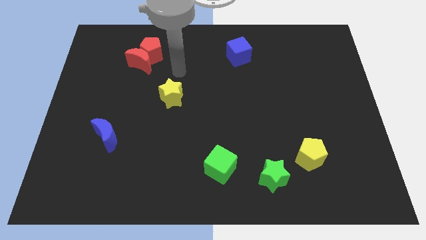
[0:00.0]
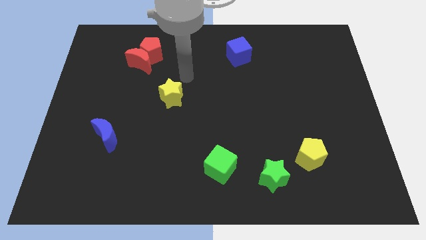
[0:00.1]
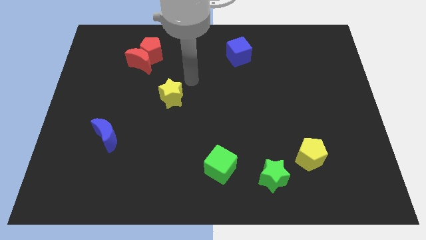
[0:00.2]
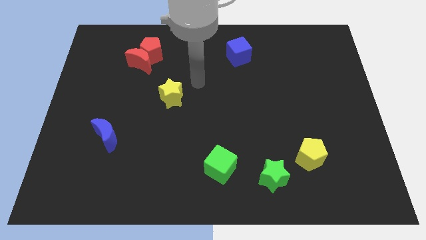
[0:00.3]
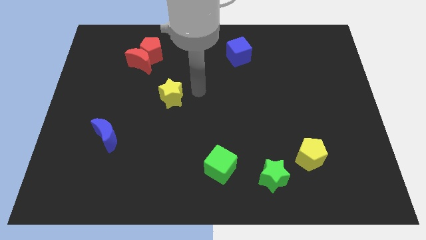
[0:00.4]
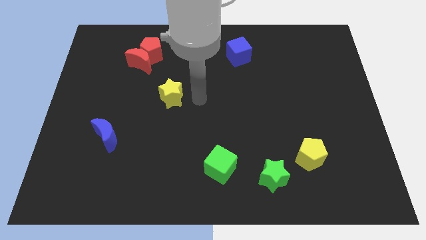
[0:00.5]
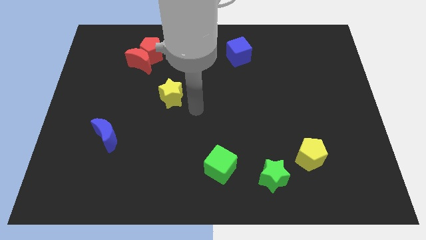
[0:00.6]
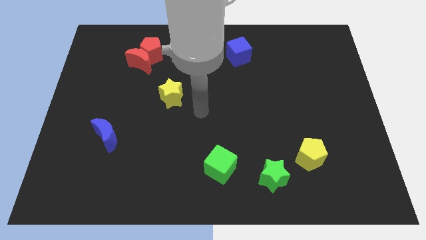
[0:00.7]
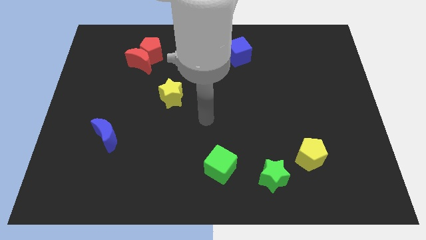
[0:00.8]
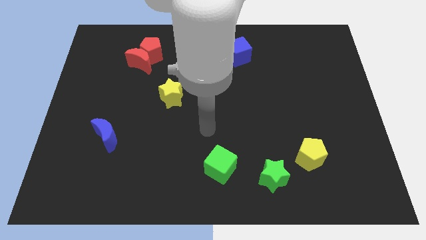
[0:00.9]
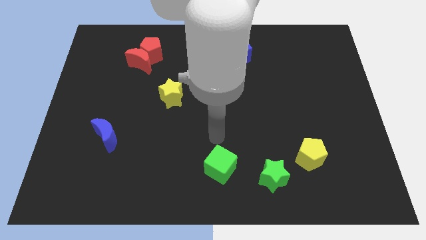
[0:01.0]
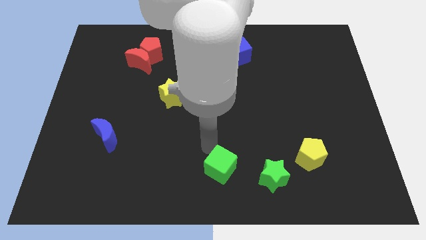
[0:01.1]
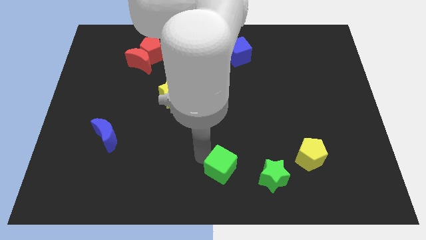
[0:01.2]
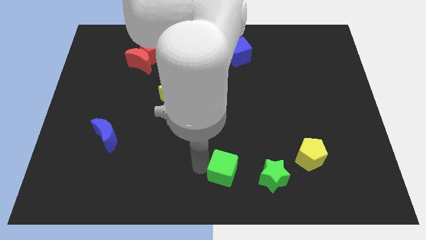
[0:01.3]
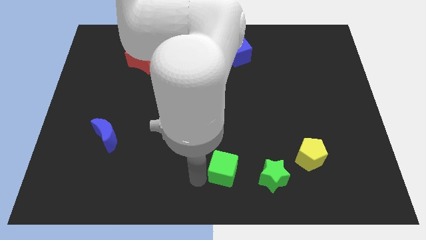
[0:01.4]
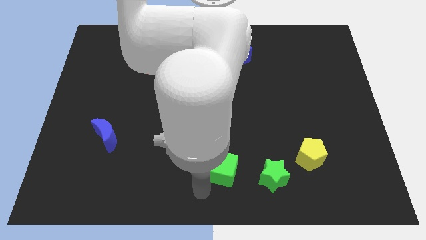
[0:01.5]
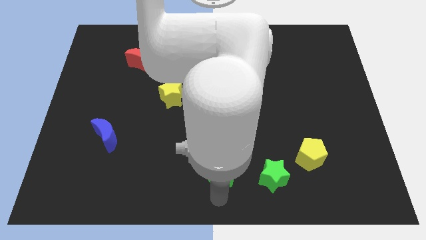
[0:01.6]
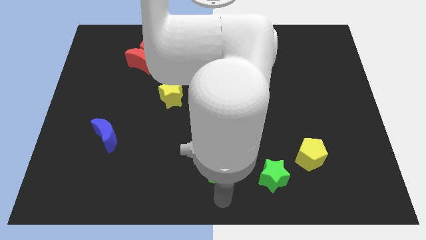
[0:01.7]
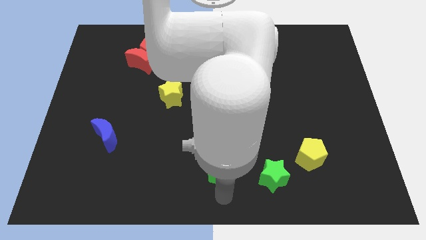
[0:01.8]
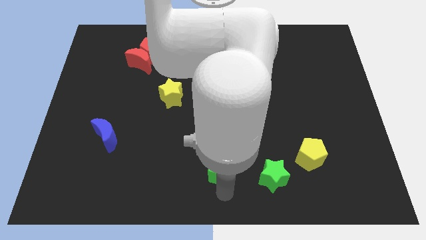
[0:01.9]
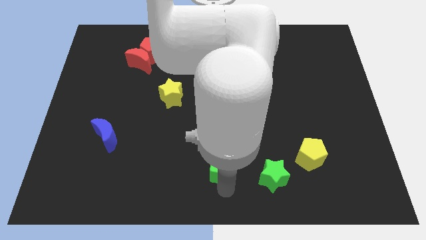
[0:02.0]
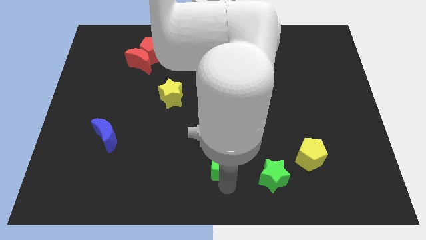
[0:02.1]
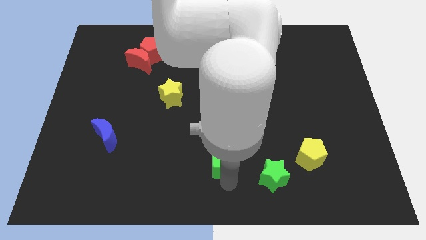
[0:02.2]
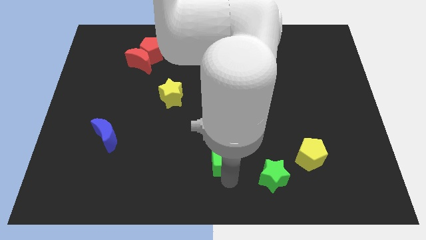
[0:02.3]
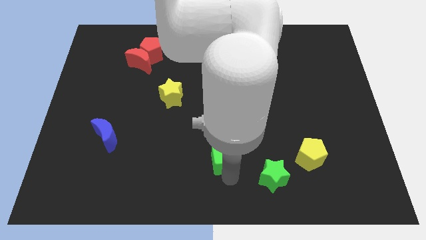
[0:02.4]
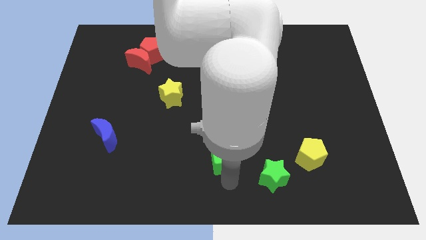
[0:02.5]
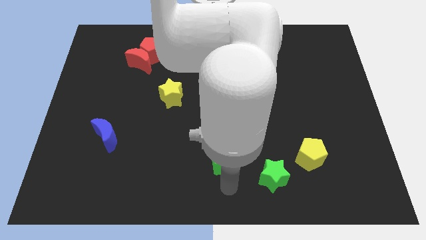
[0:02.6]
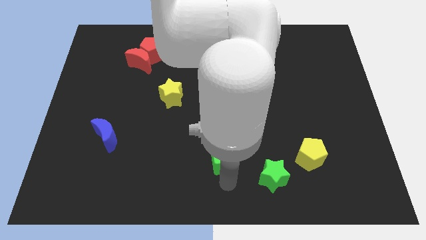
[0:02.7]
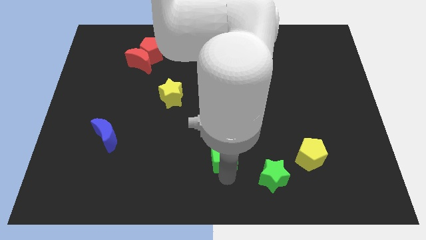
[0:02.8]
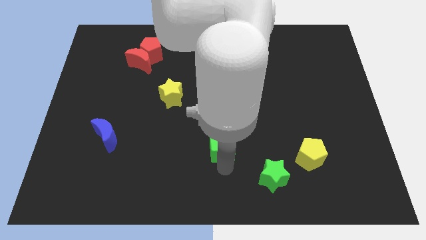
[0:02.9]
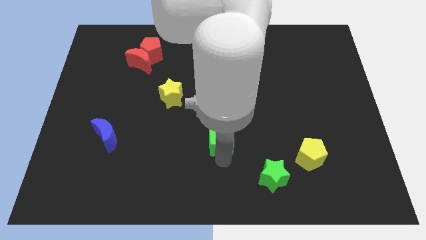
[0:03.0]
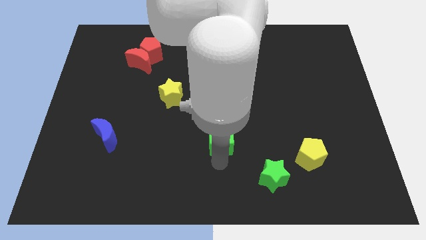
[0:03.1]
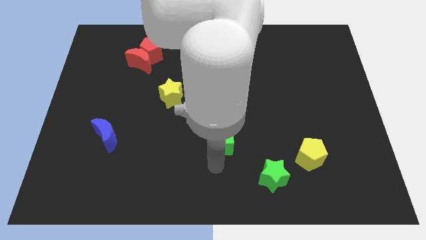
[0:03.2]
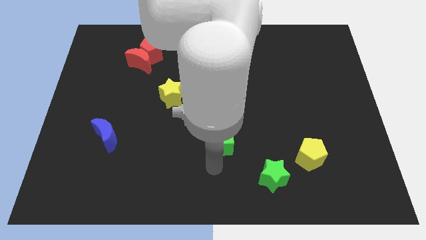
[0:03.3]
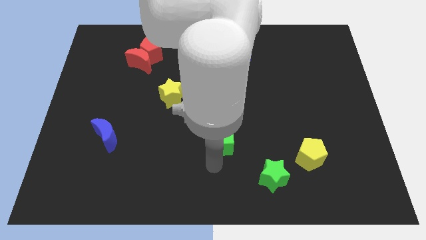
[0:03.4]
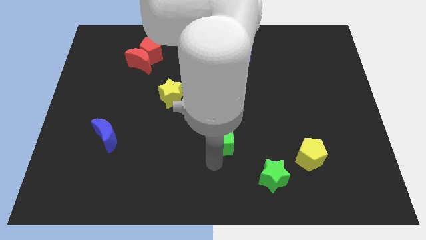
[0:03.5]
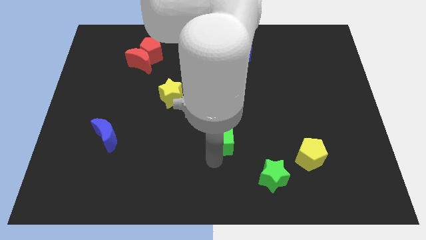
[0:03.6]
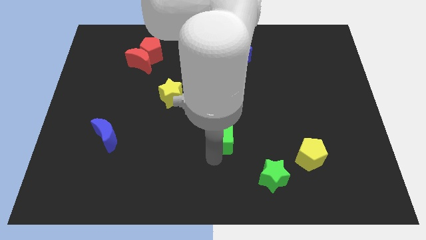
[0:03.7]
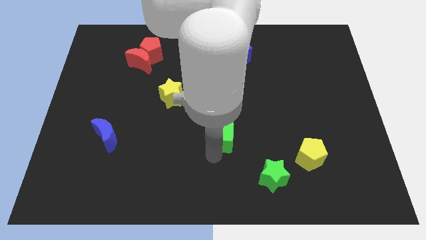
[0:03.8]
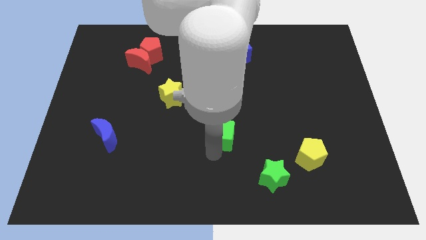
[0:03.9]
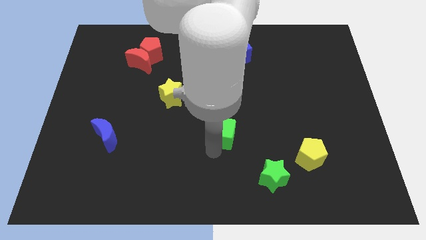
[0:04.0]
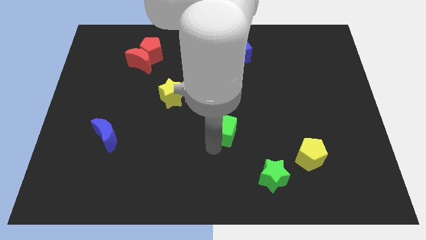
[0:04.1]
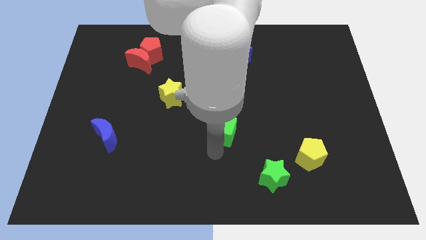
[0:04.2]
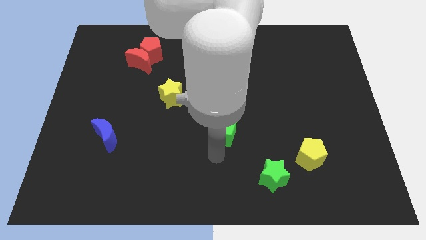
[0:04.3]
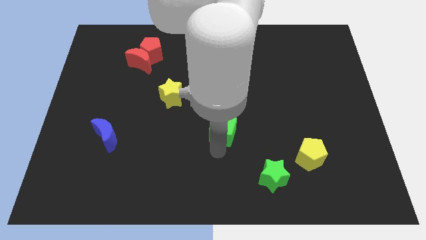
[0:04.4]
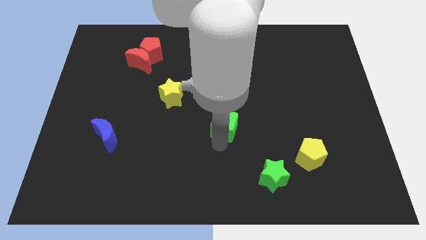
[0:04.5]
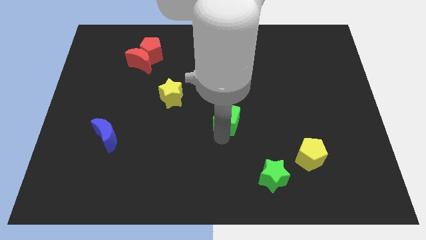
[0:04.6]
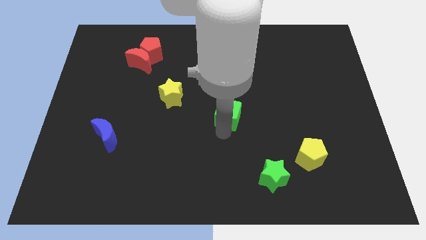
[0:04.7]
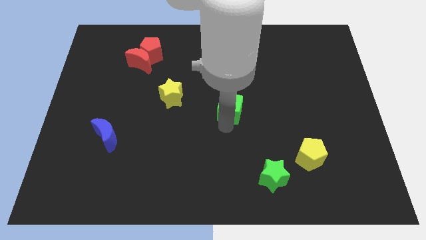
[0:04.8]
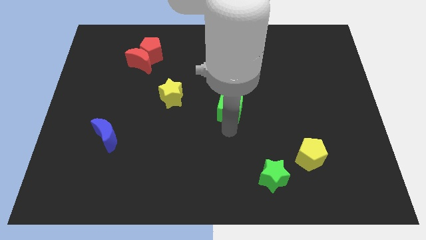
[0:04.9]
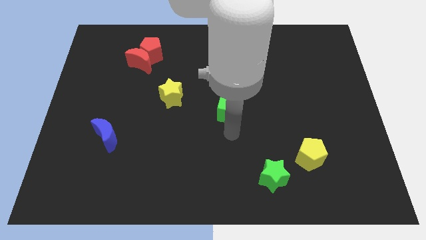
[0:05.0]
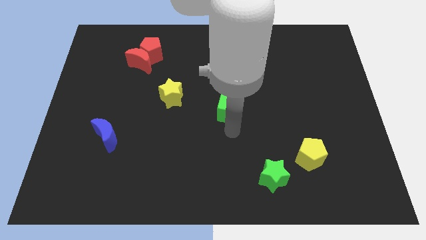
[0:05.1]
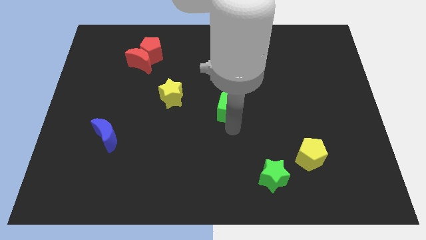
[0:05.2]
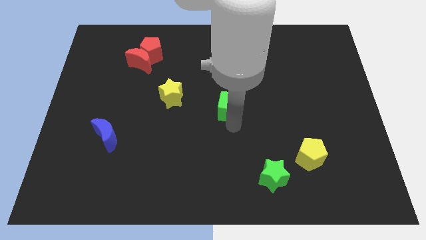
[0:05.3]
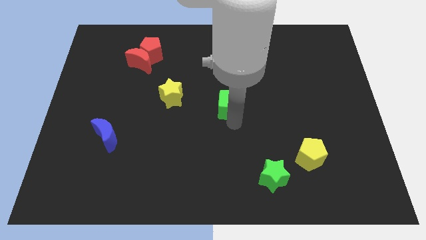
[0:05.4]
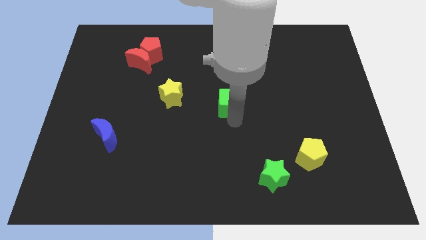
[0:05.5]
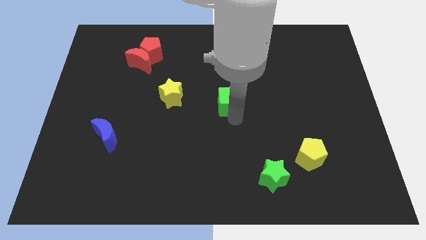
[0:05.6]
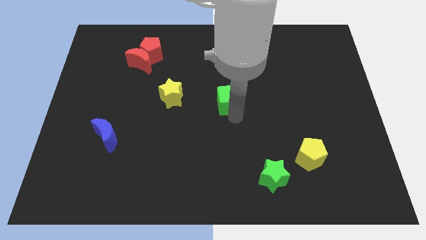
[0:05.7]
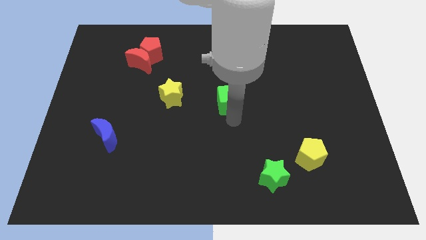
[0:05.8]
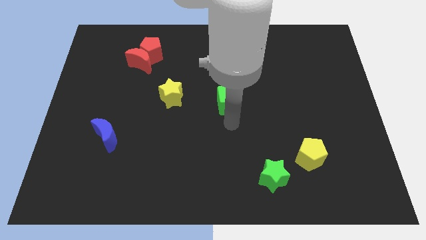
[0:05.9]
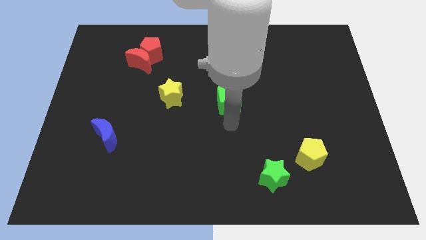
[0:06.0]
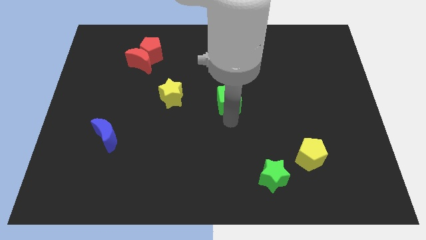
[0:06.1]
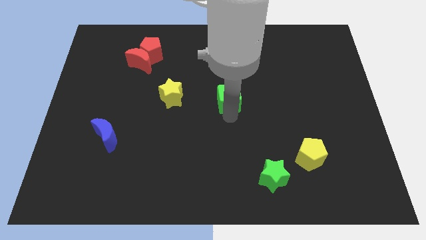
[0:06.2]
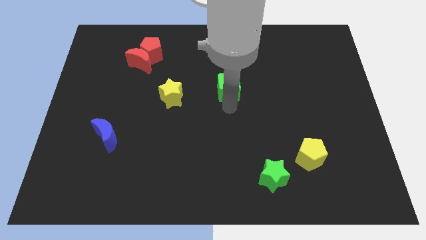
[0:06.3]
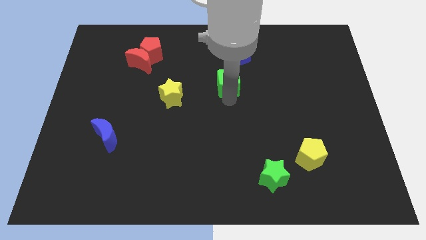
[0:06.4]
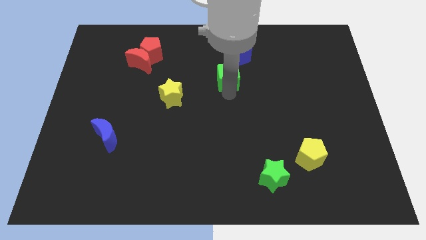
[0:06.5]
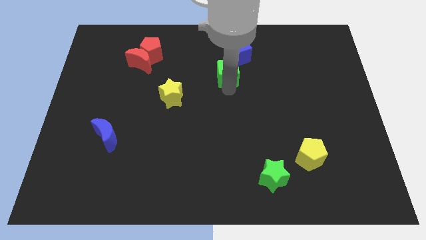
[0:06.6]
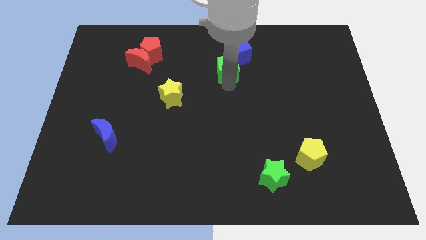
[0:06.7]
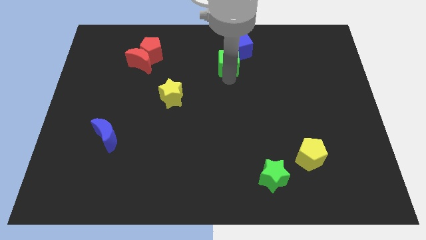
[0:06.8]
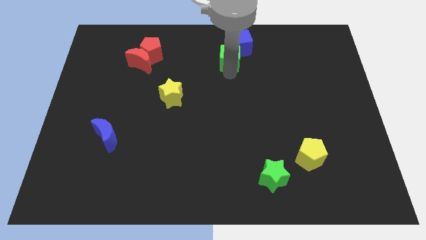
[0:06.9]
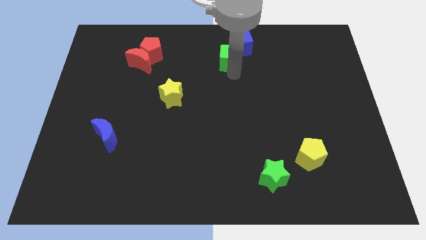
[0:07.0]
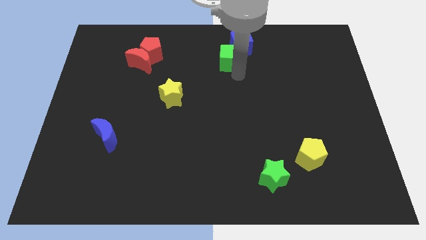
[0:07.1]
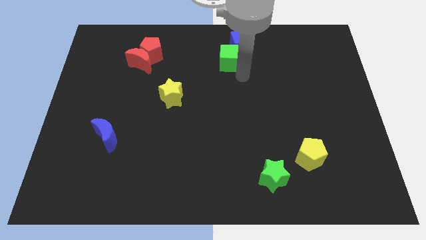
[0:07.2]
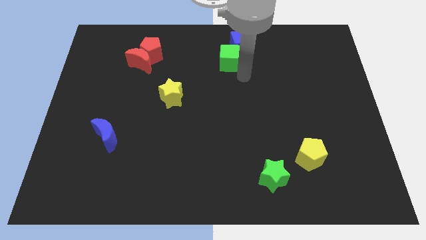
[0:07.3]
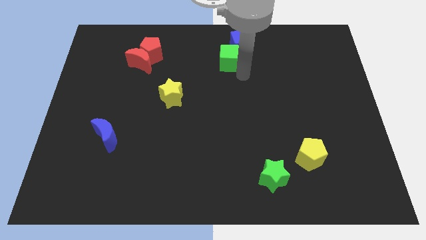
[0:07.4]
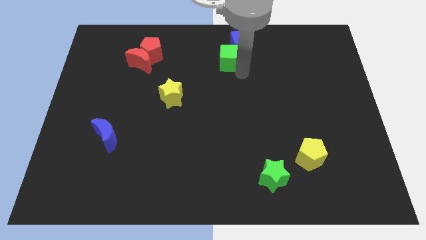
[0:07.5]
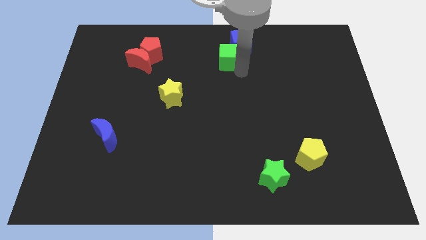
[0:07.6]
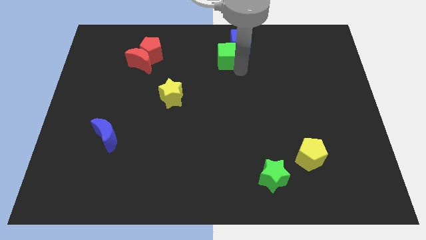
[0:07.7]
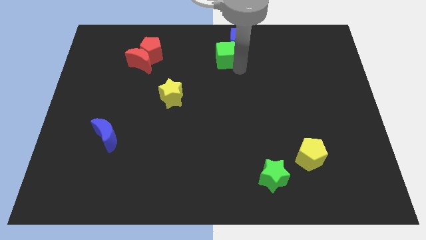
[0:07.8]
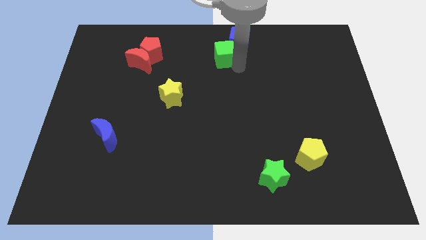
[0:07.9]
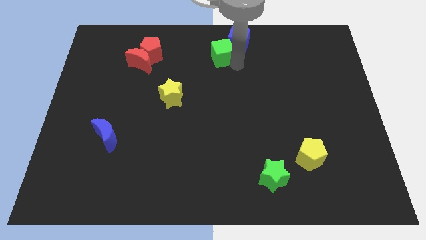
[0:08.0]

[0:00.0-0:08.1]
slide the green cube to the top
